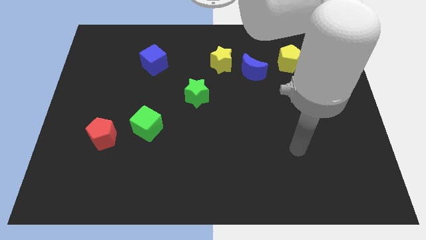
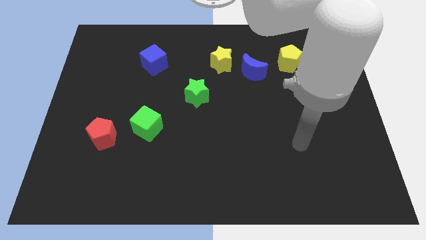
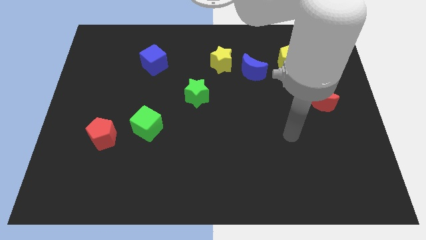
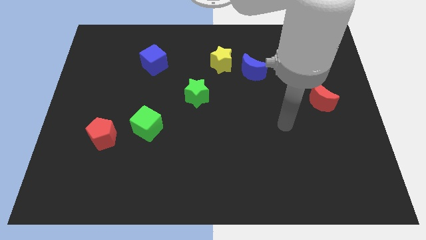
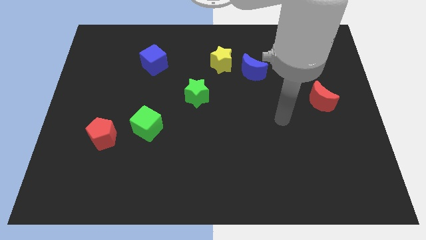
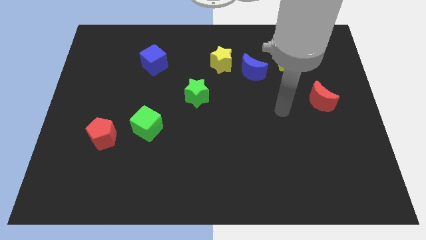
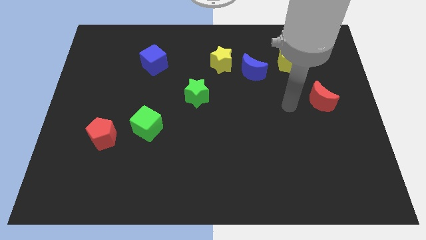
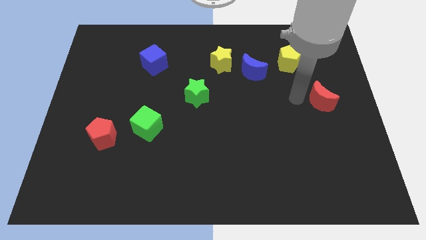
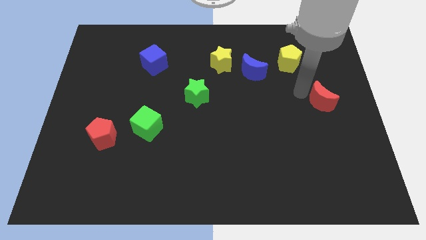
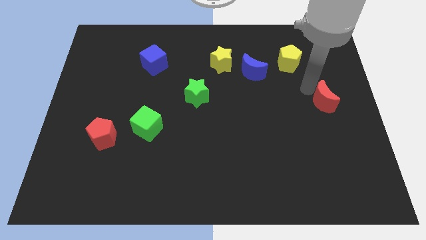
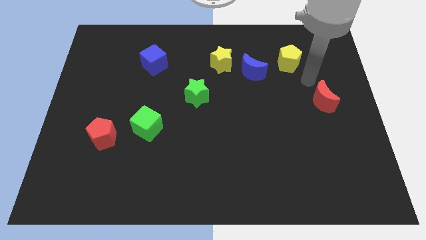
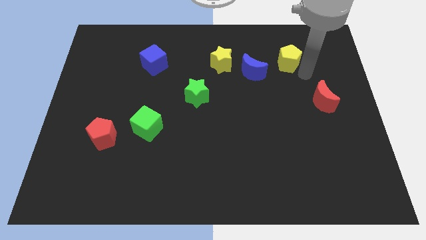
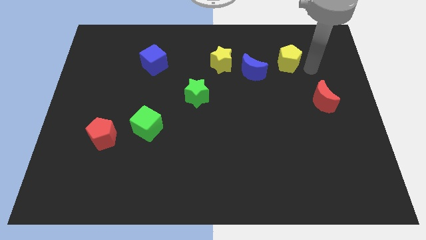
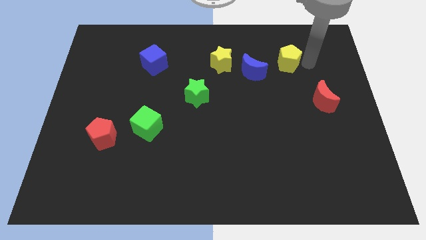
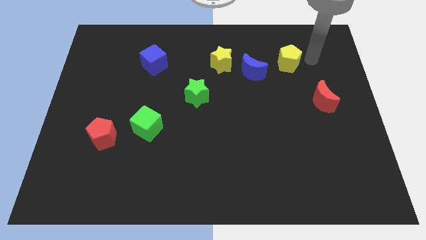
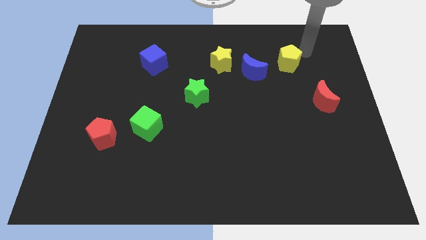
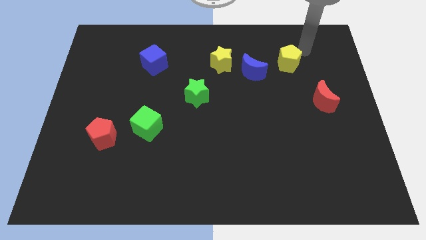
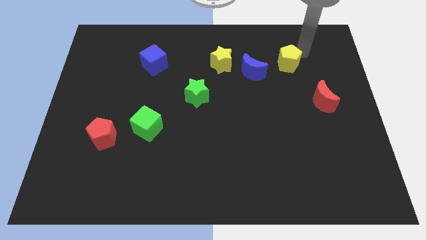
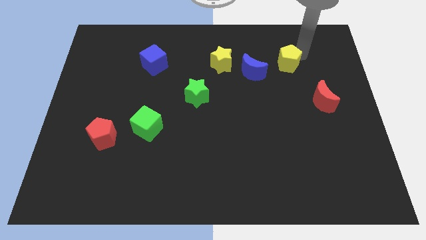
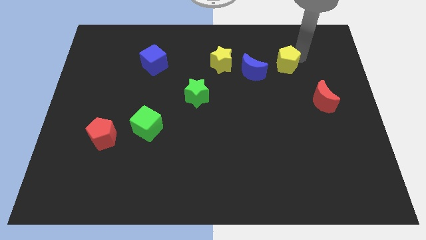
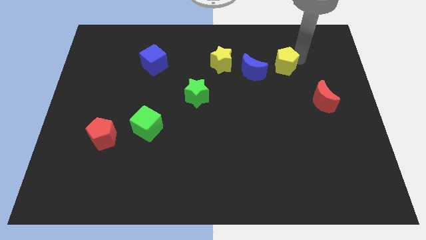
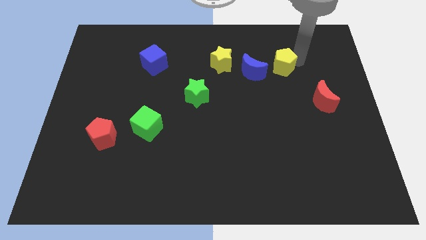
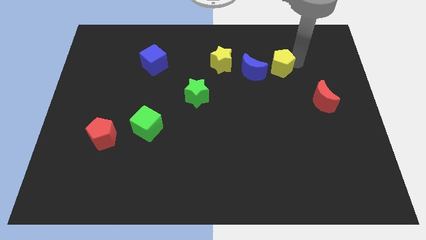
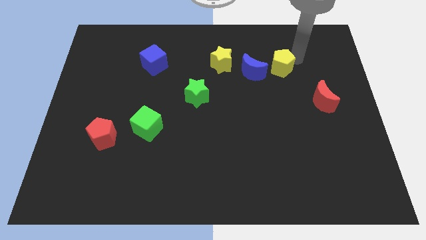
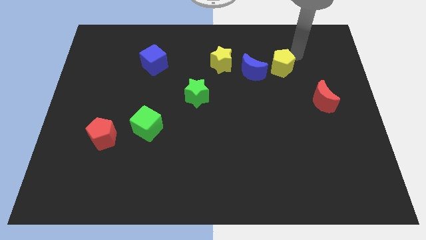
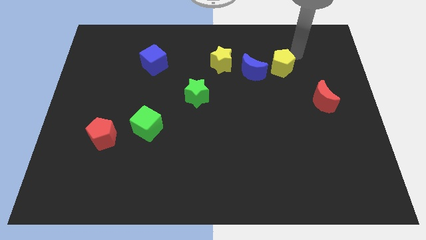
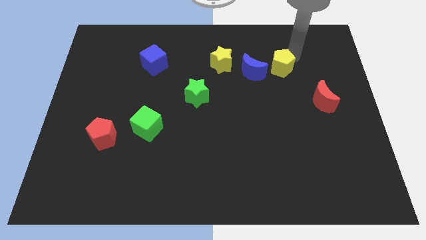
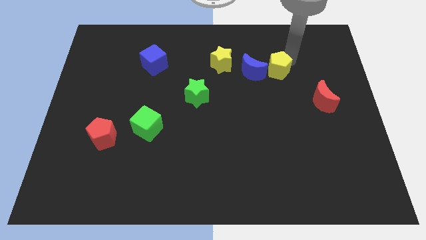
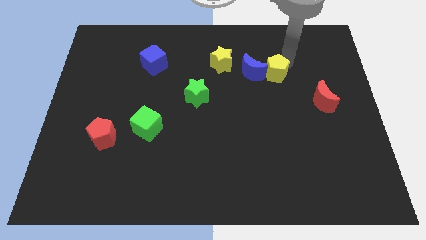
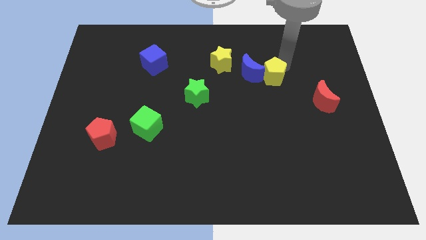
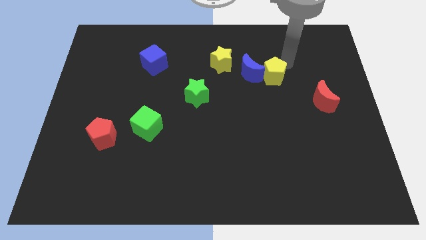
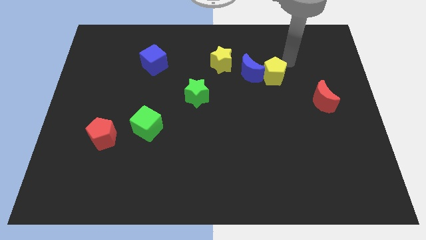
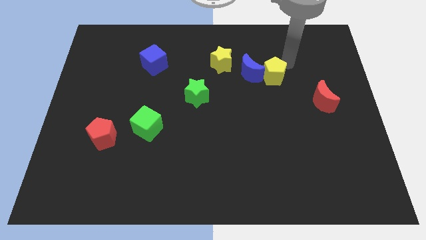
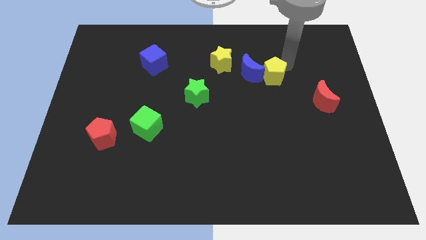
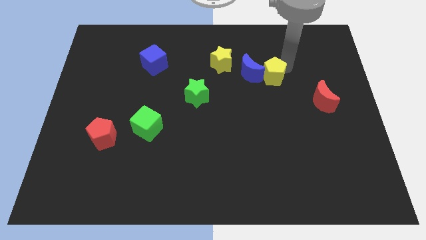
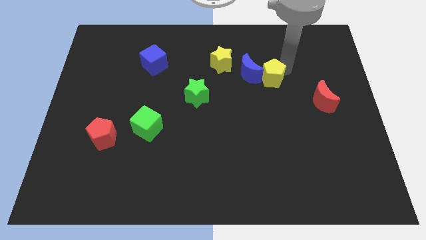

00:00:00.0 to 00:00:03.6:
push the yellow pentagon a little diagonally downwards and to the left

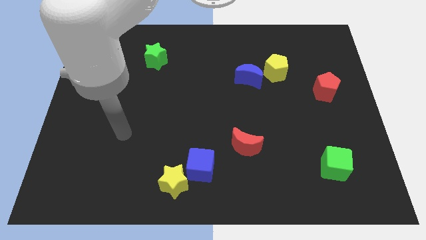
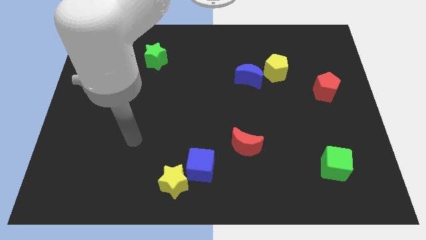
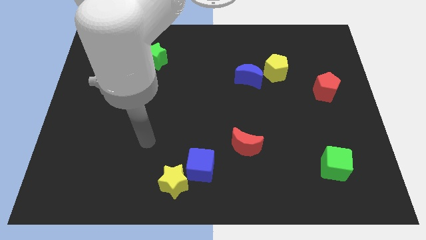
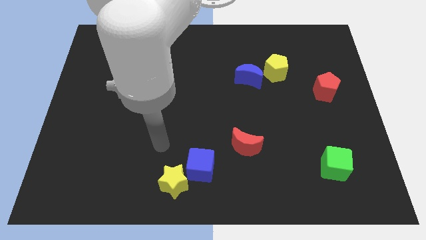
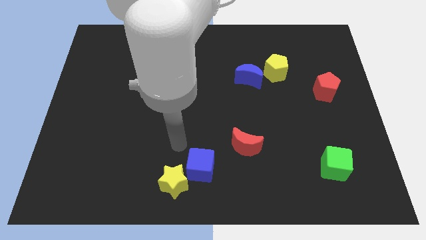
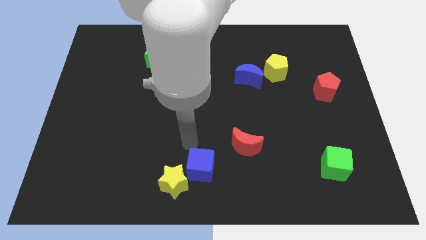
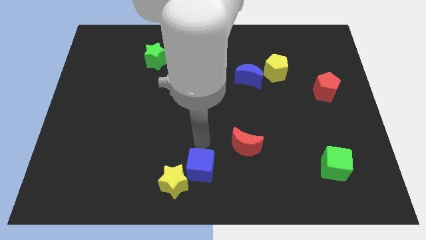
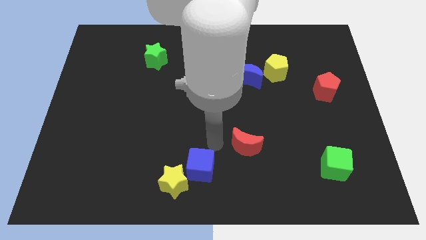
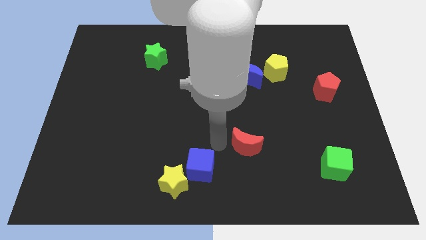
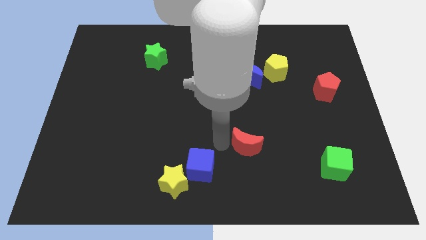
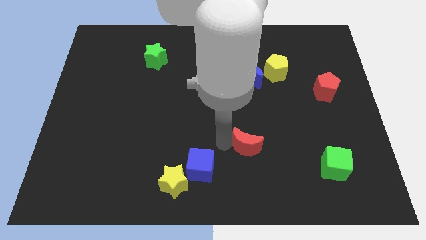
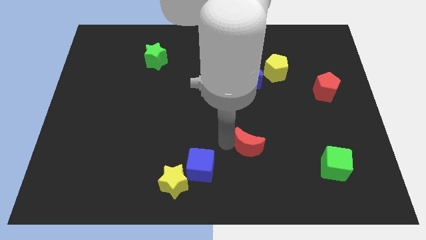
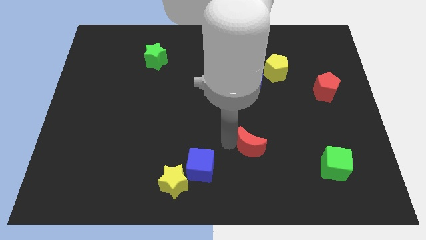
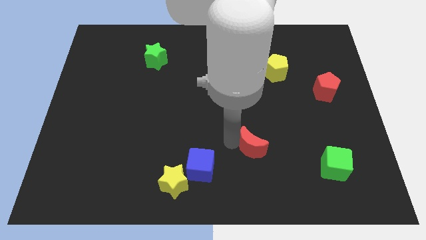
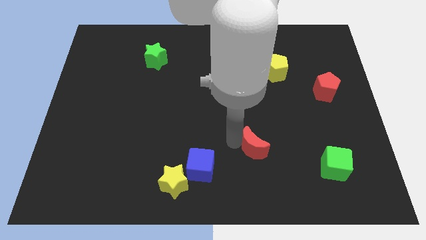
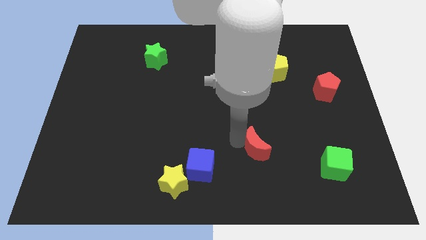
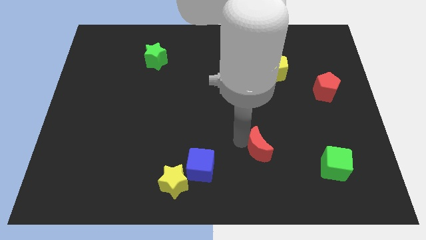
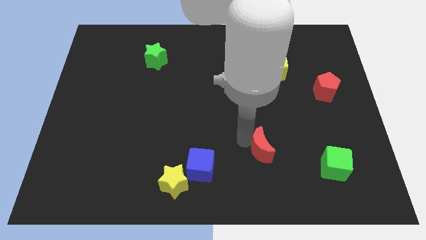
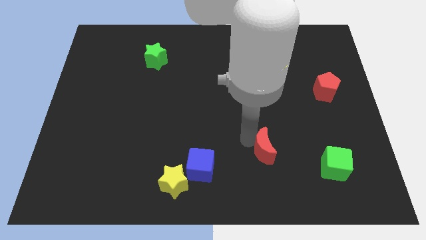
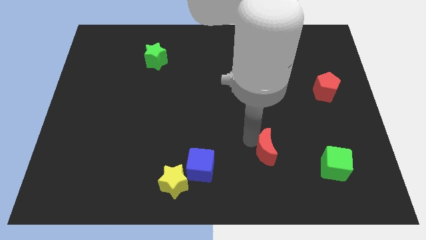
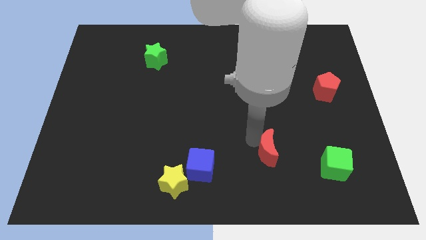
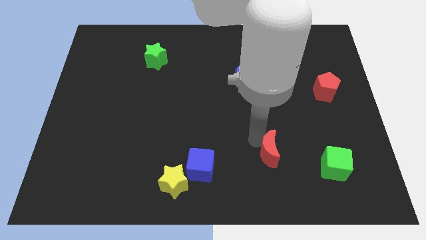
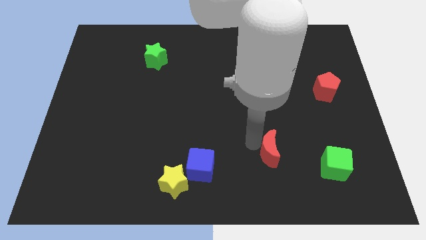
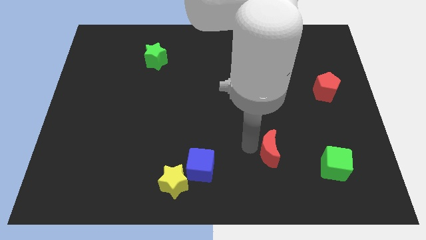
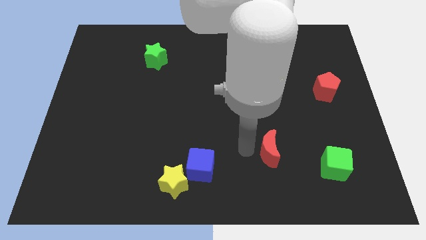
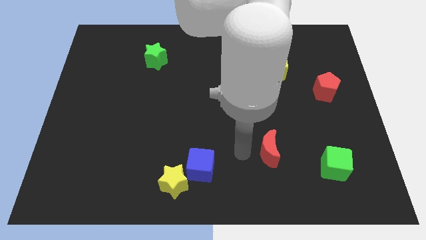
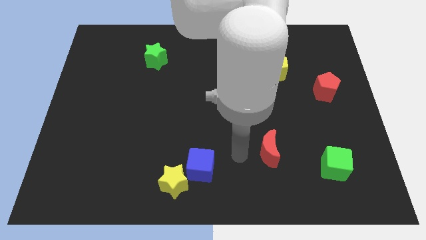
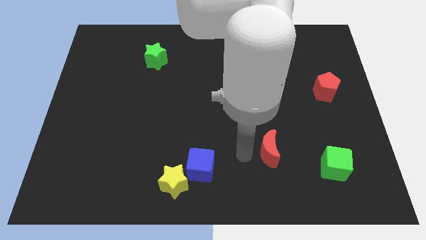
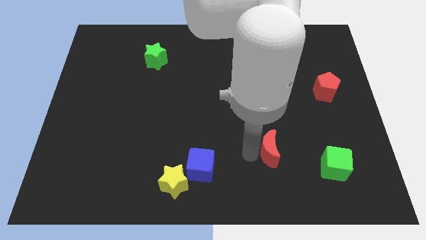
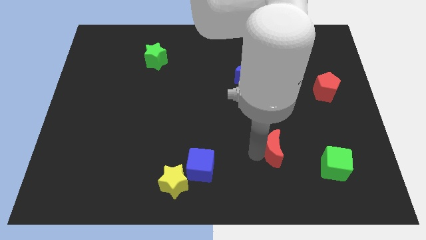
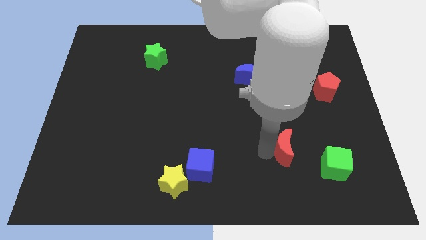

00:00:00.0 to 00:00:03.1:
push the red moon slightly right

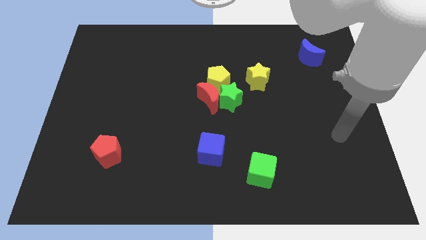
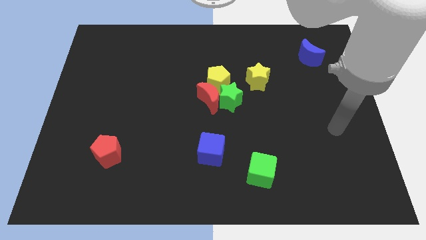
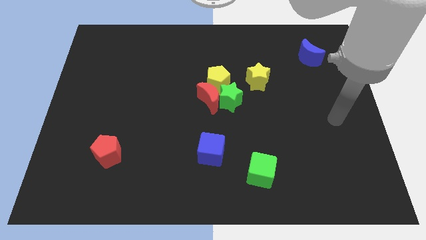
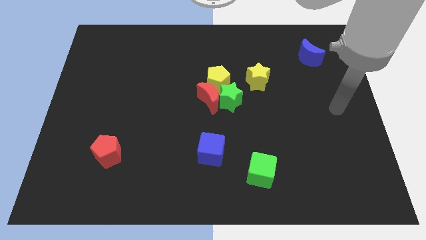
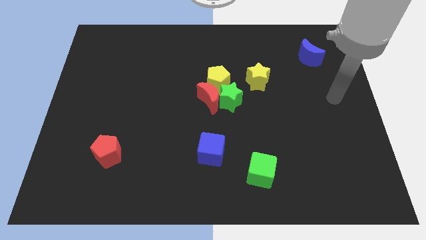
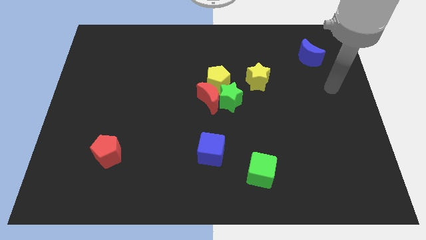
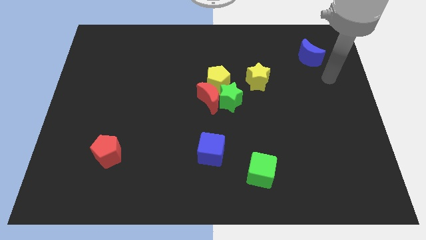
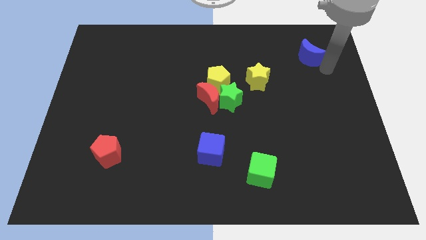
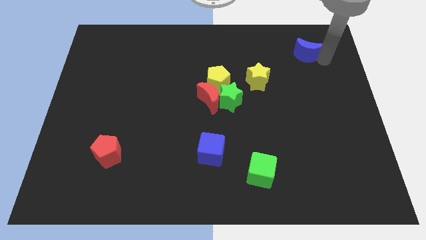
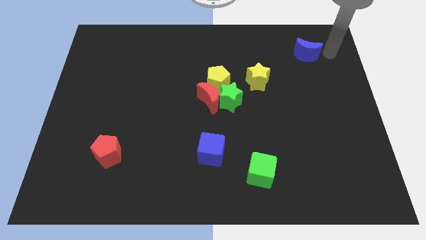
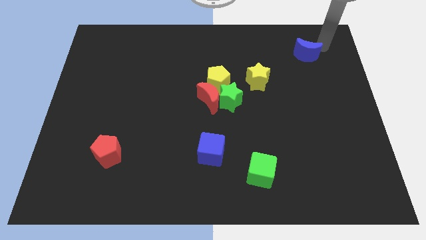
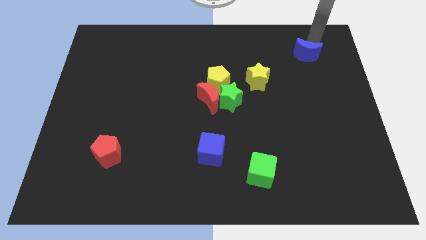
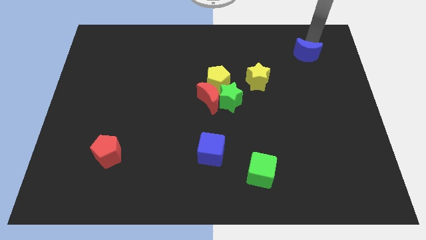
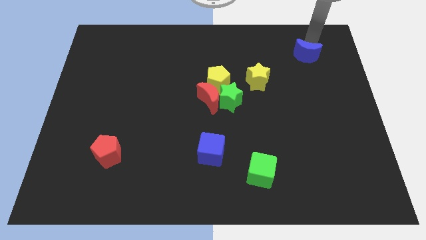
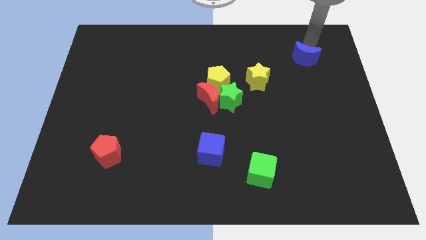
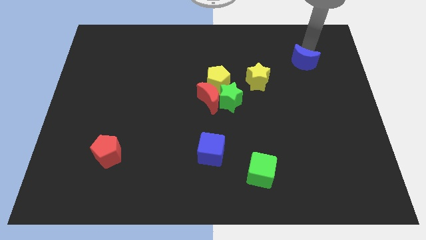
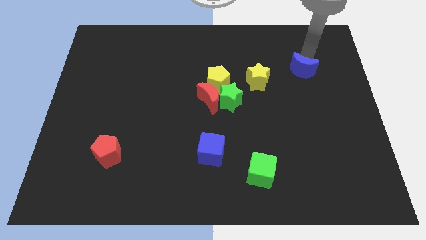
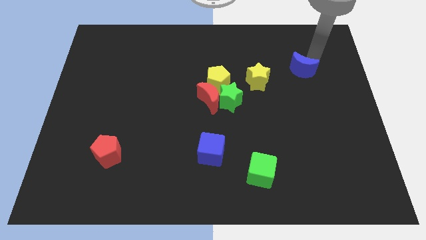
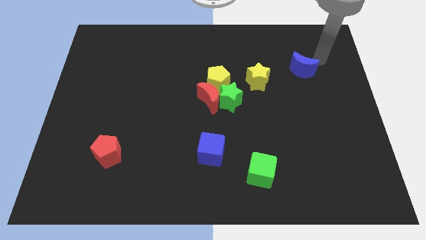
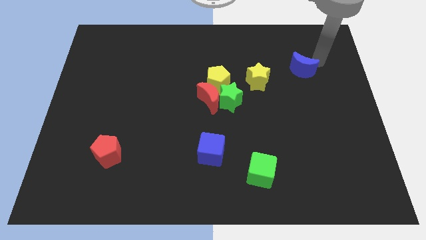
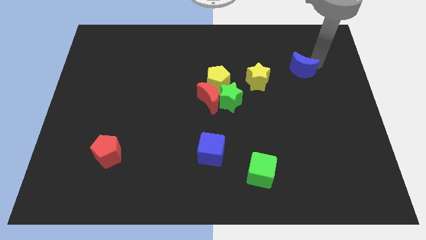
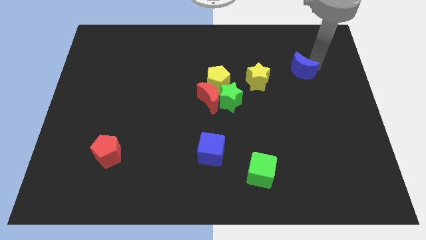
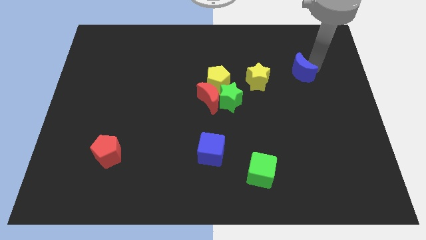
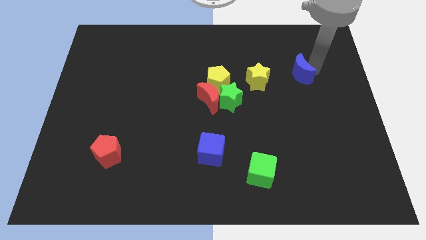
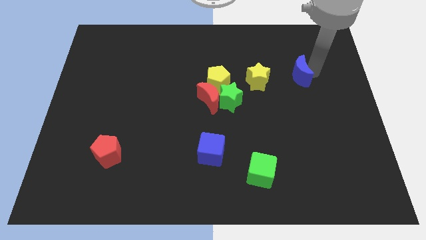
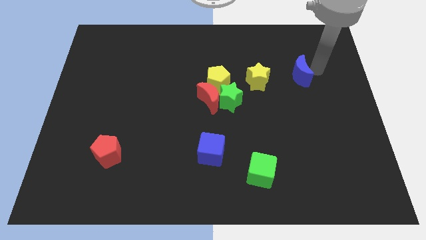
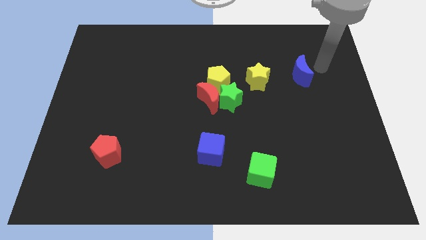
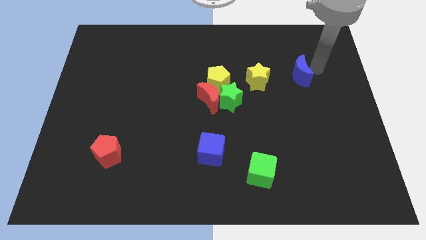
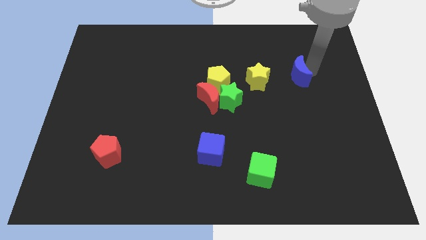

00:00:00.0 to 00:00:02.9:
move the blue moon a little down and to the left diagonally
